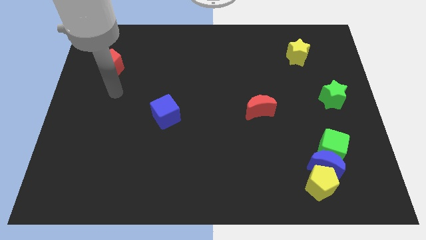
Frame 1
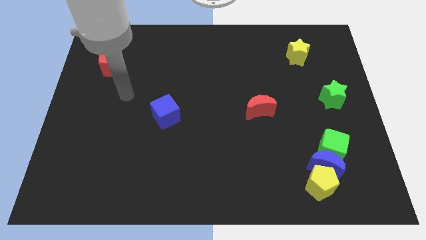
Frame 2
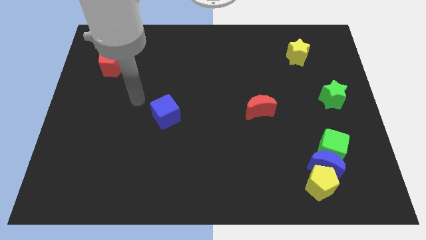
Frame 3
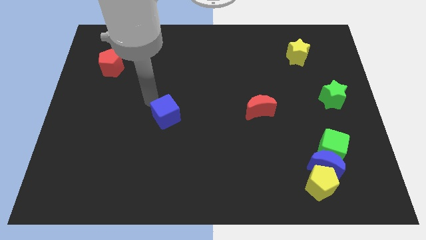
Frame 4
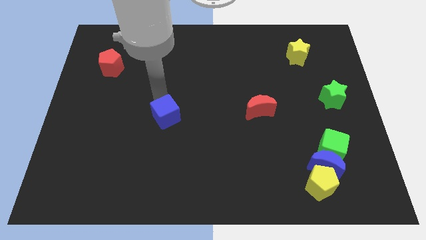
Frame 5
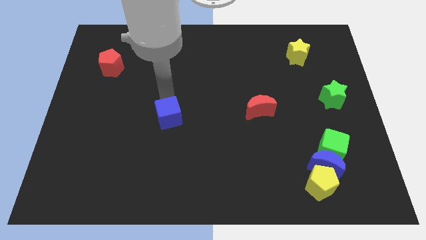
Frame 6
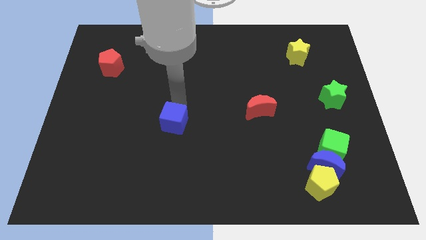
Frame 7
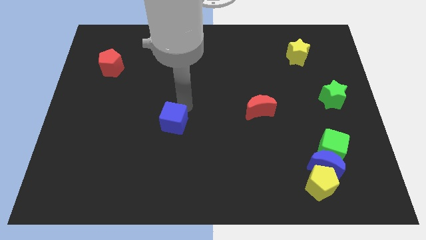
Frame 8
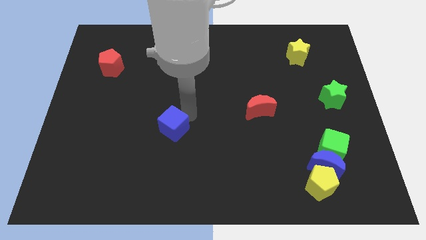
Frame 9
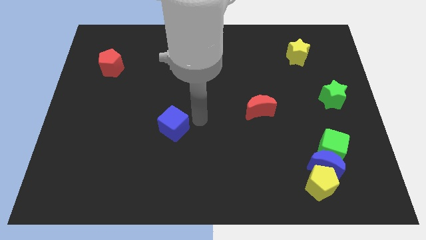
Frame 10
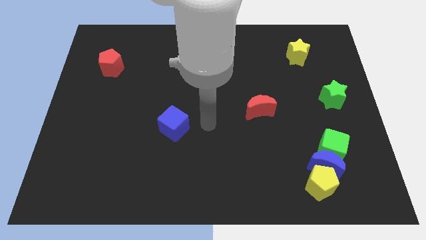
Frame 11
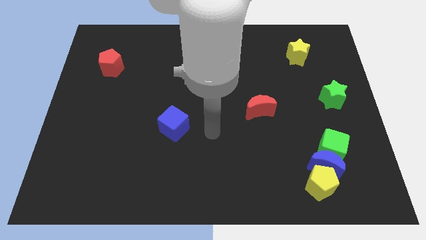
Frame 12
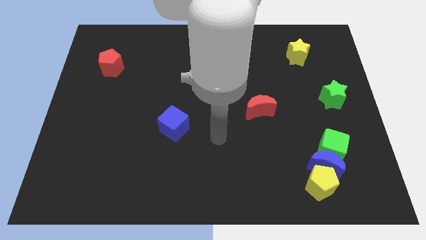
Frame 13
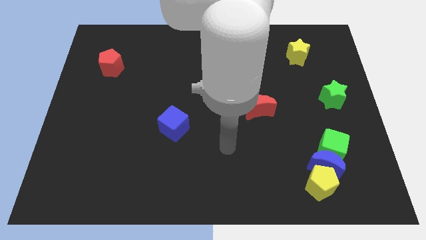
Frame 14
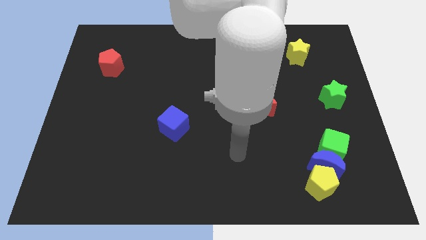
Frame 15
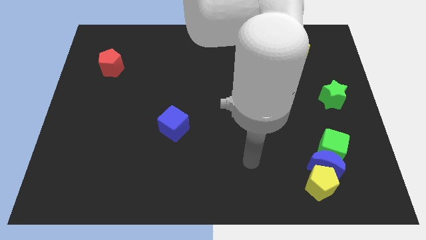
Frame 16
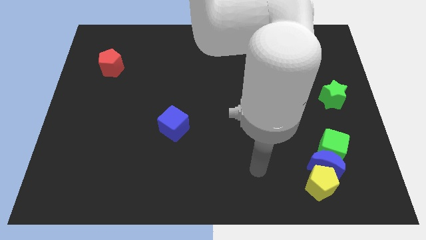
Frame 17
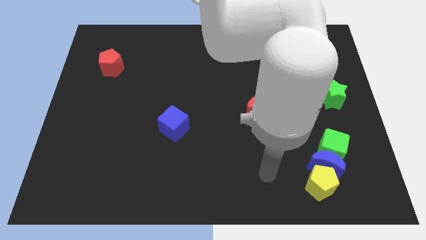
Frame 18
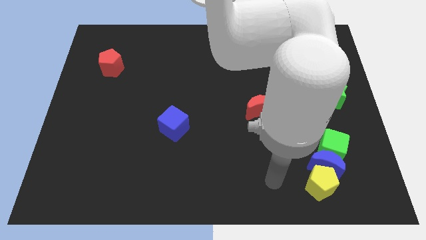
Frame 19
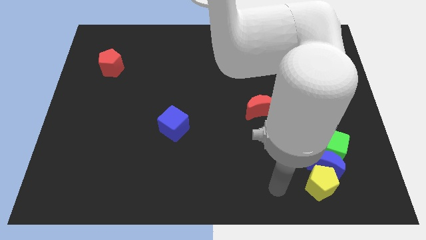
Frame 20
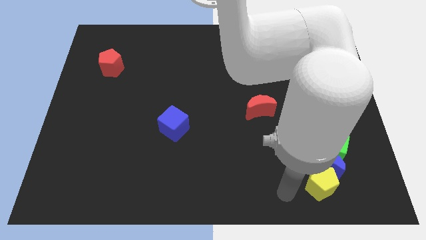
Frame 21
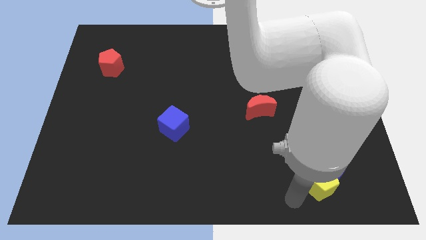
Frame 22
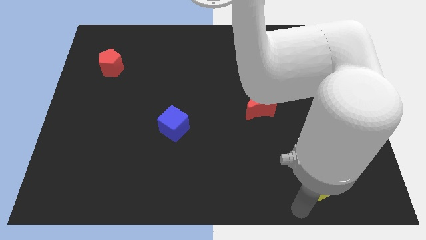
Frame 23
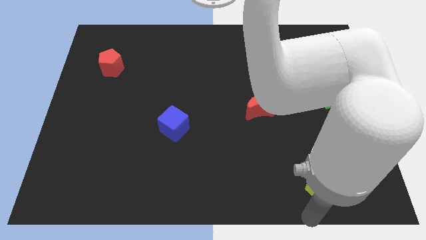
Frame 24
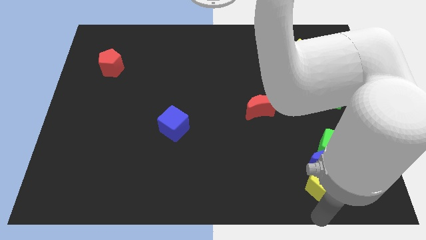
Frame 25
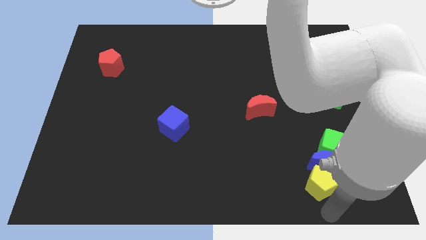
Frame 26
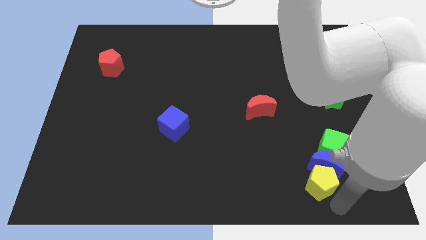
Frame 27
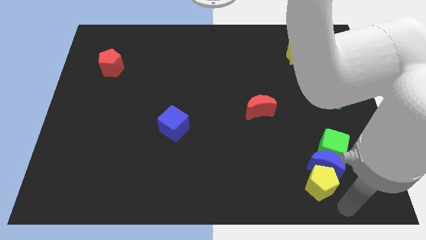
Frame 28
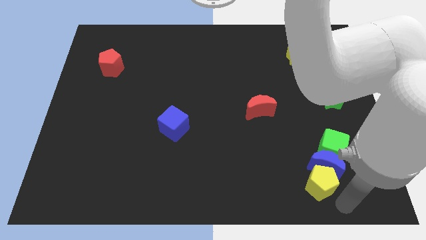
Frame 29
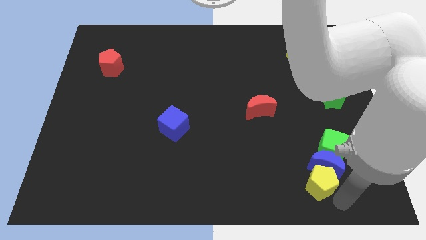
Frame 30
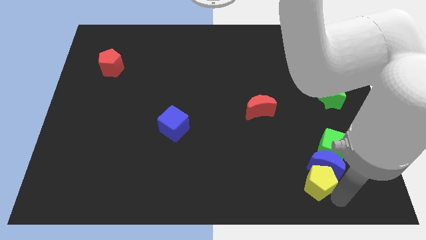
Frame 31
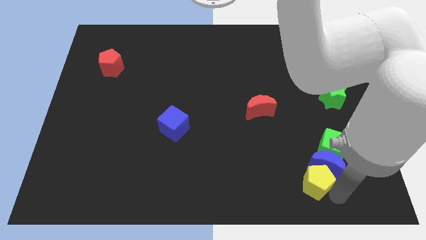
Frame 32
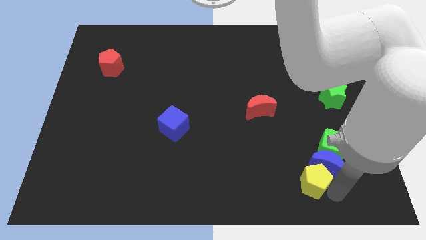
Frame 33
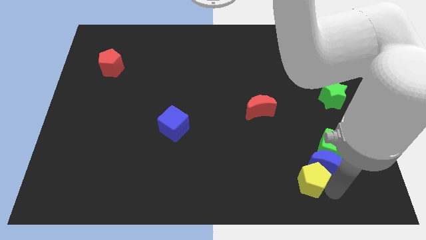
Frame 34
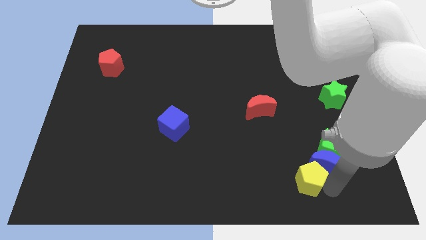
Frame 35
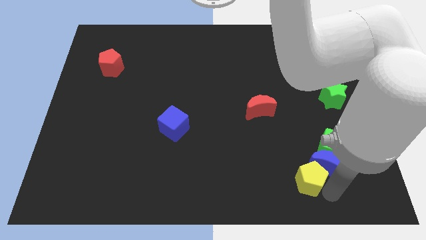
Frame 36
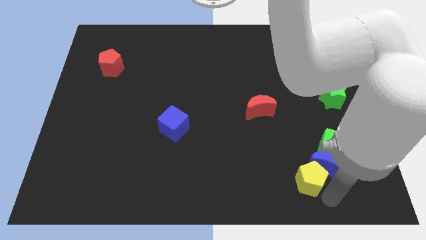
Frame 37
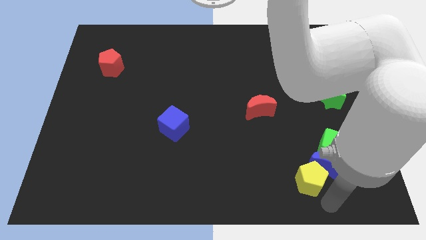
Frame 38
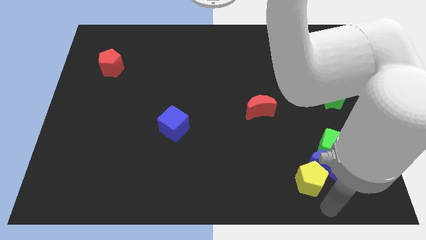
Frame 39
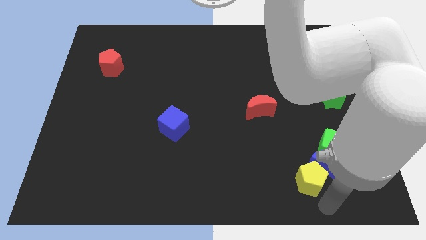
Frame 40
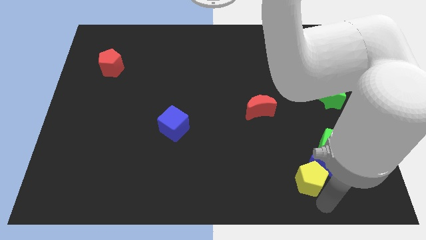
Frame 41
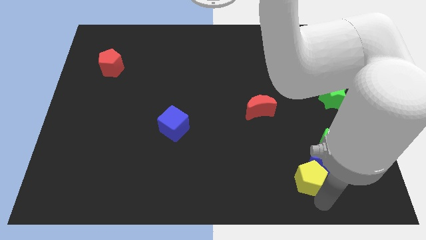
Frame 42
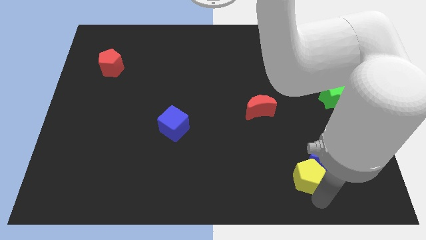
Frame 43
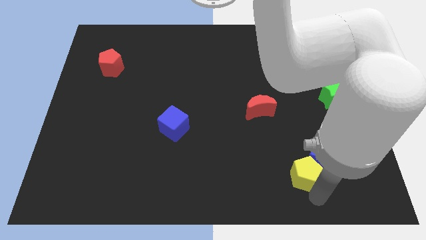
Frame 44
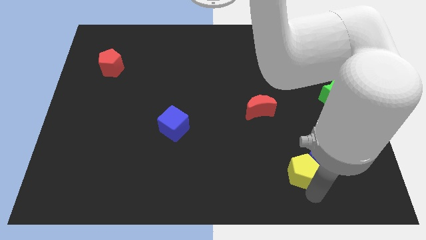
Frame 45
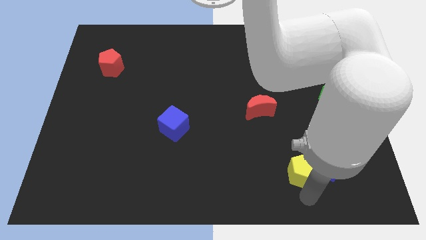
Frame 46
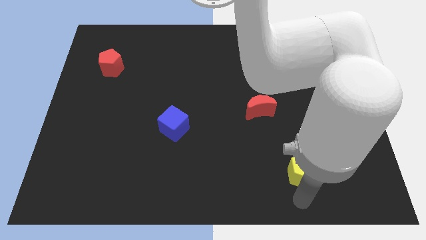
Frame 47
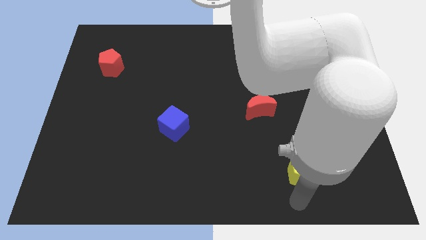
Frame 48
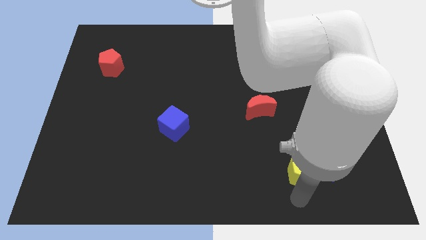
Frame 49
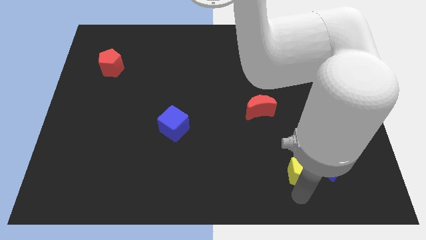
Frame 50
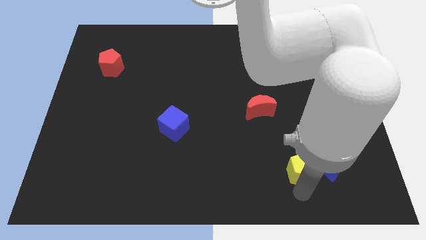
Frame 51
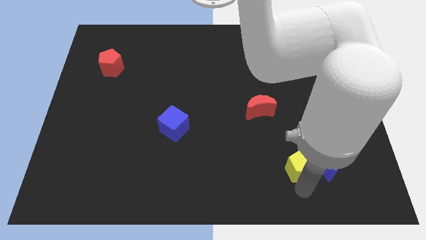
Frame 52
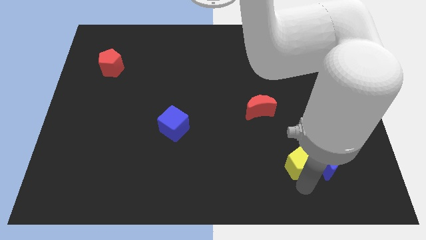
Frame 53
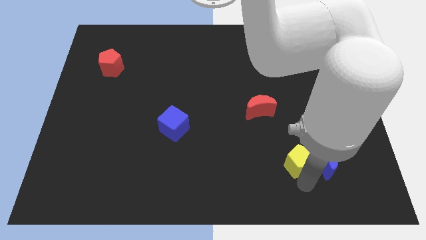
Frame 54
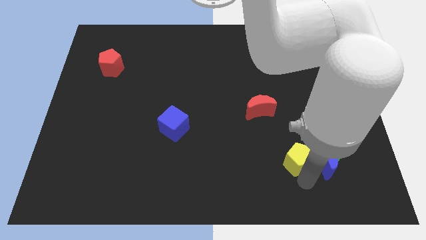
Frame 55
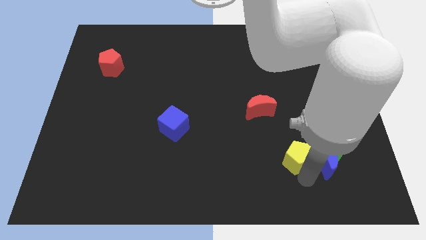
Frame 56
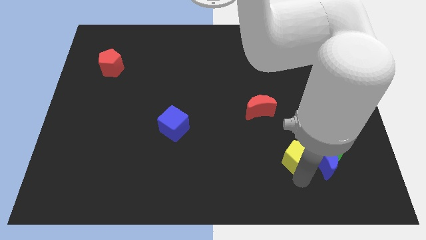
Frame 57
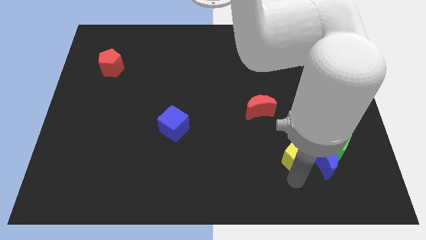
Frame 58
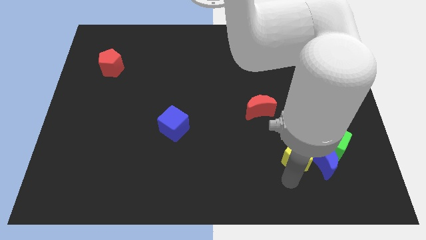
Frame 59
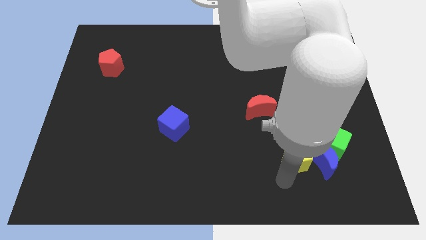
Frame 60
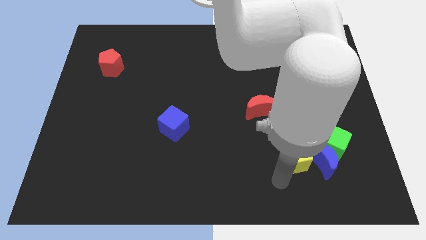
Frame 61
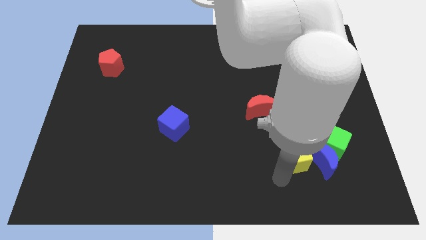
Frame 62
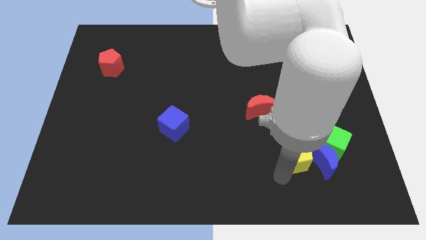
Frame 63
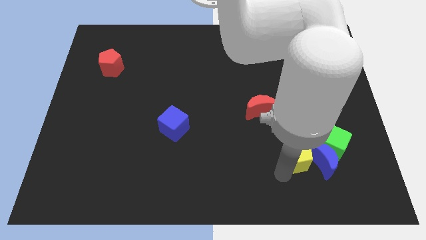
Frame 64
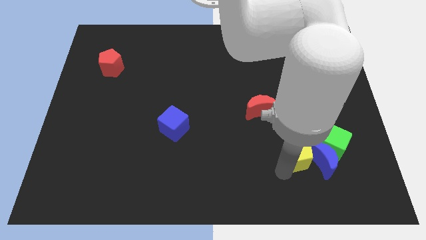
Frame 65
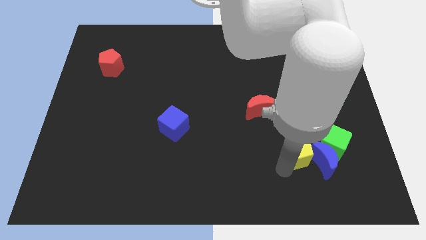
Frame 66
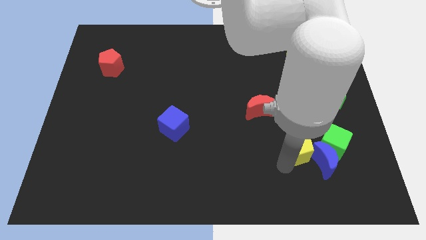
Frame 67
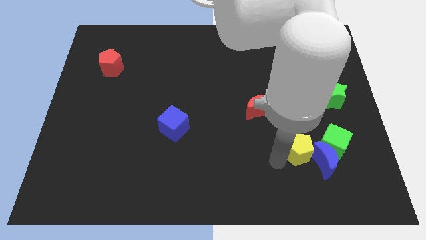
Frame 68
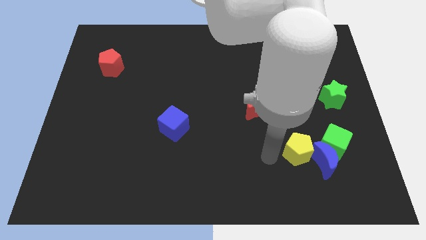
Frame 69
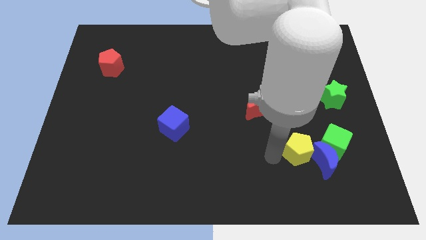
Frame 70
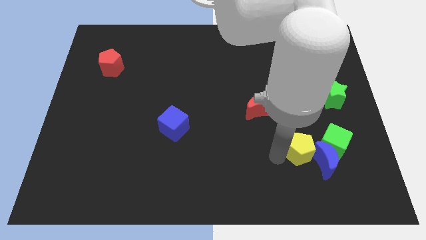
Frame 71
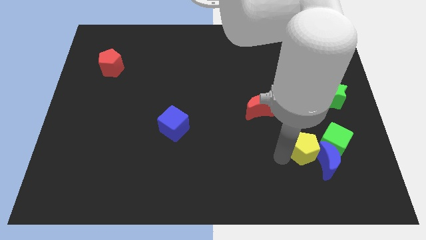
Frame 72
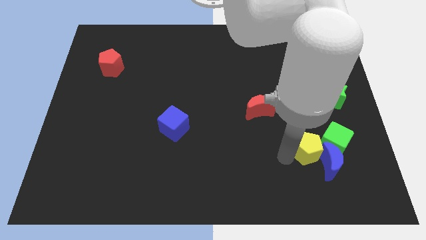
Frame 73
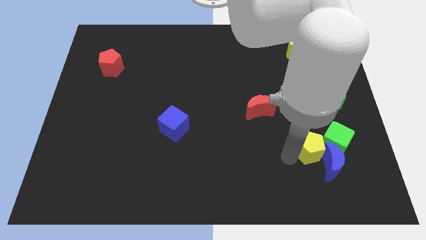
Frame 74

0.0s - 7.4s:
put the yellow pentagon towards the green cube

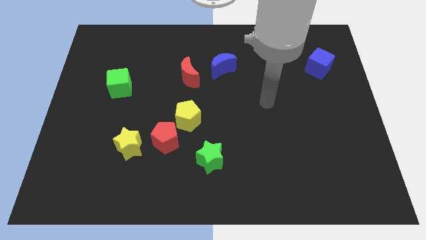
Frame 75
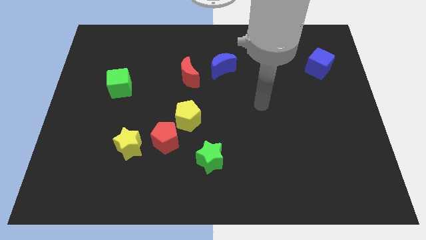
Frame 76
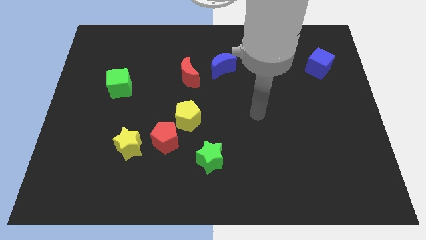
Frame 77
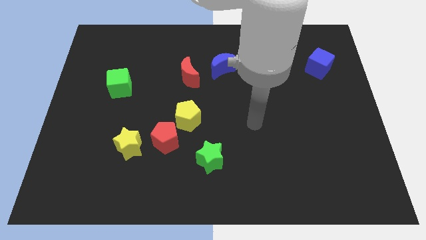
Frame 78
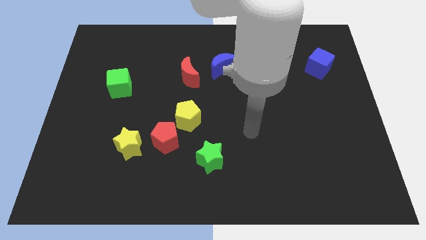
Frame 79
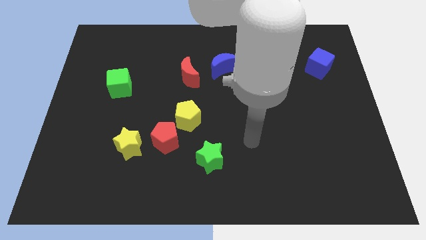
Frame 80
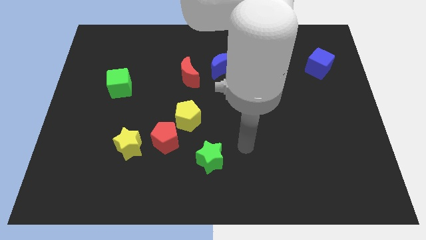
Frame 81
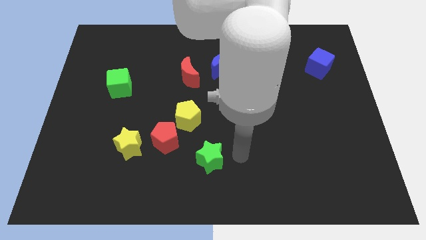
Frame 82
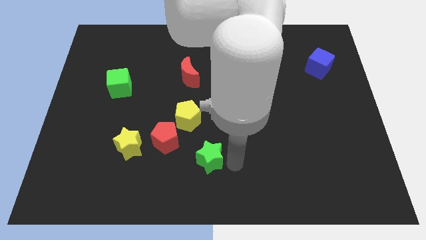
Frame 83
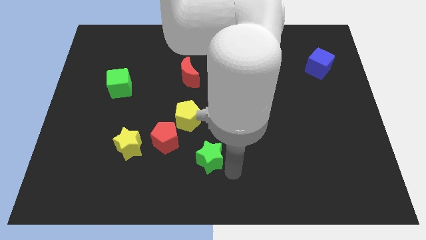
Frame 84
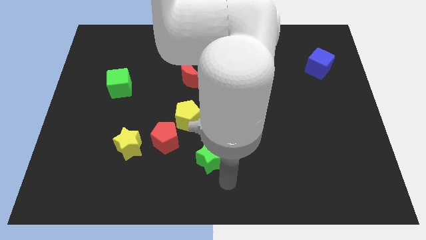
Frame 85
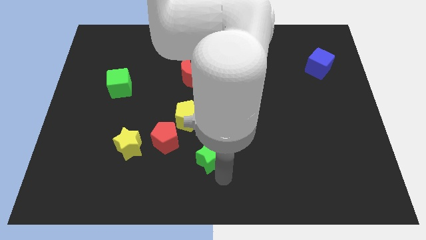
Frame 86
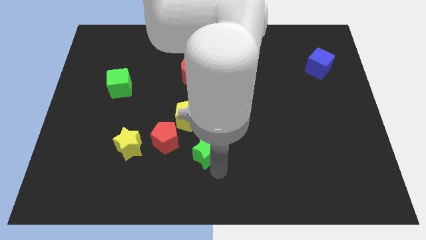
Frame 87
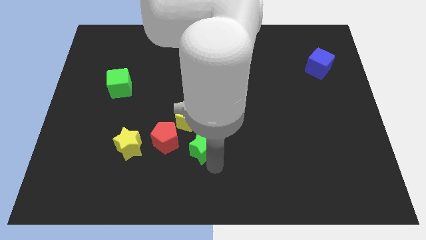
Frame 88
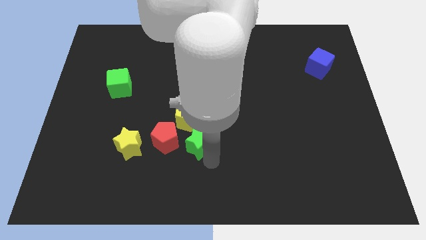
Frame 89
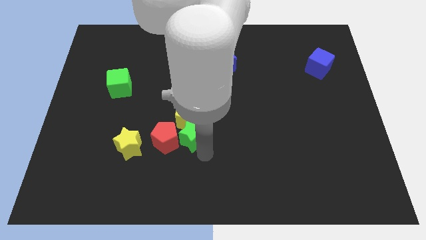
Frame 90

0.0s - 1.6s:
put the green star next to the yellow pentagon
